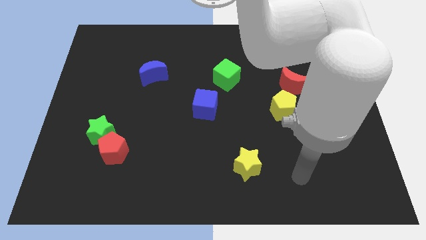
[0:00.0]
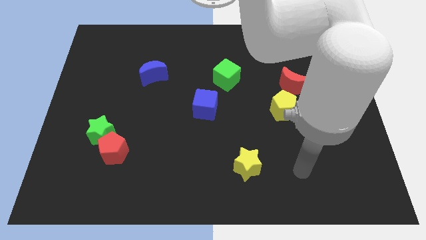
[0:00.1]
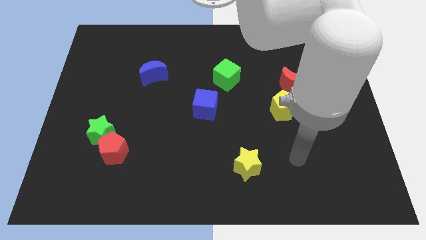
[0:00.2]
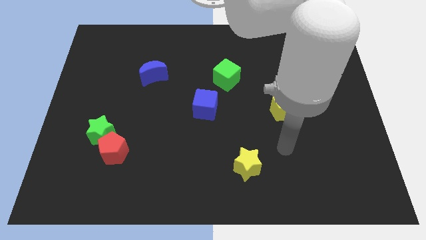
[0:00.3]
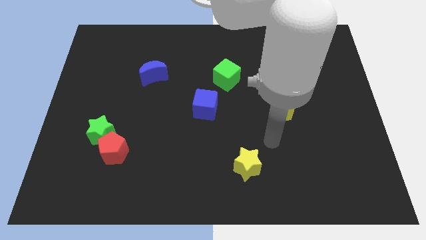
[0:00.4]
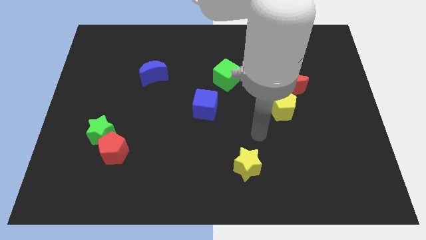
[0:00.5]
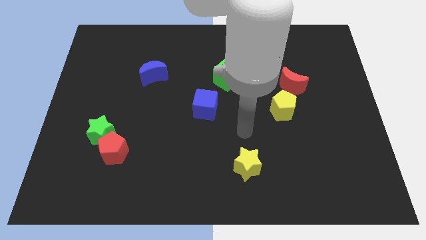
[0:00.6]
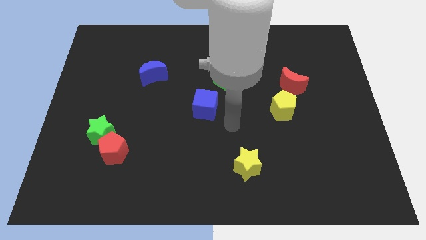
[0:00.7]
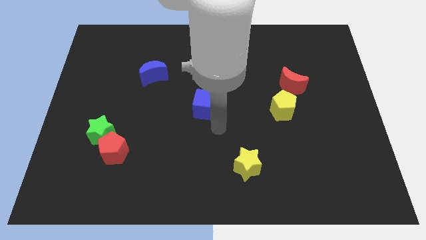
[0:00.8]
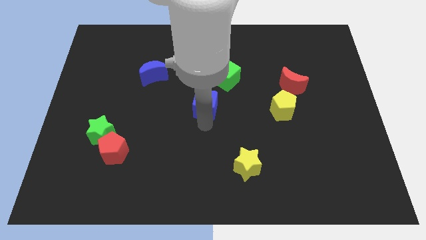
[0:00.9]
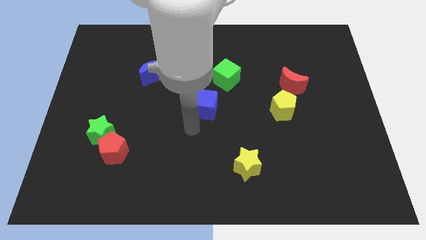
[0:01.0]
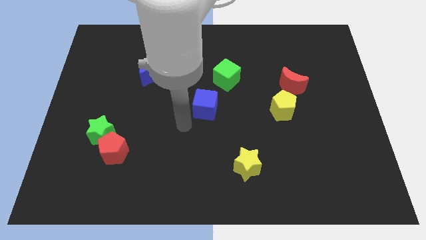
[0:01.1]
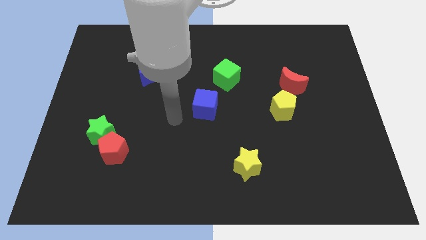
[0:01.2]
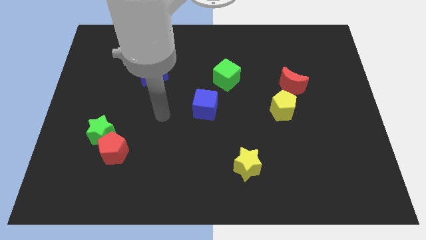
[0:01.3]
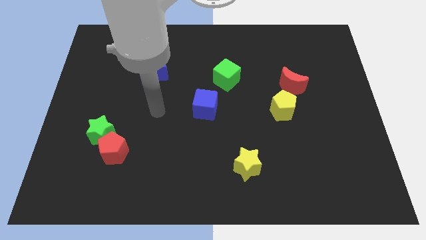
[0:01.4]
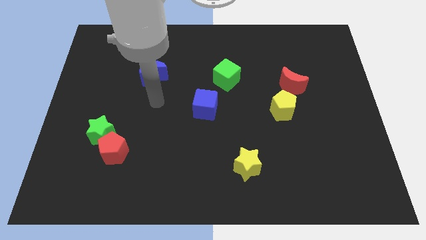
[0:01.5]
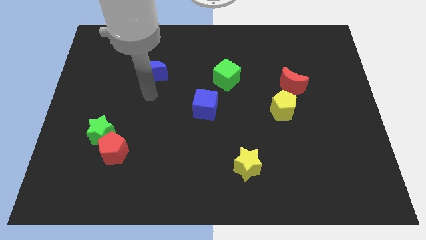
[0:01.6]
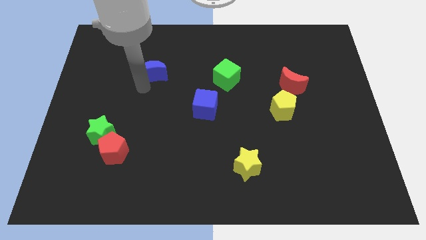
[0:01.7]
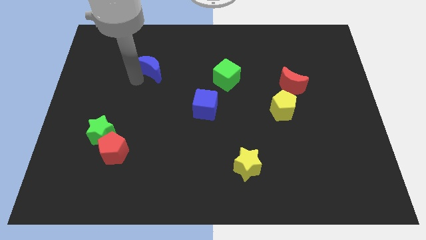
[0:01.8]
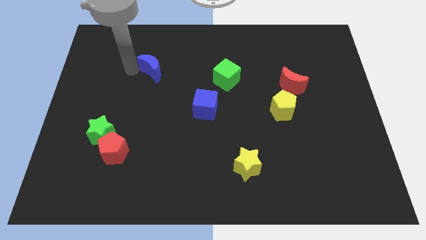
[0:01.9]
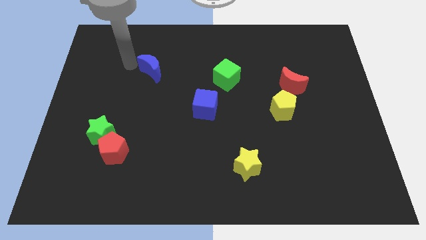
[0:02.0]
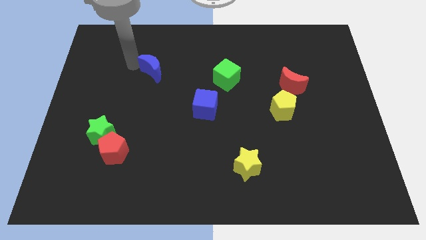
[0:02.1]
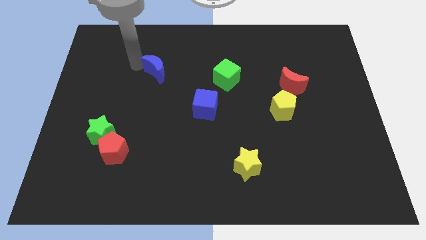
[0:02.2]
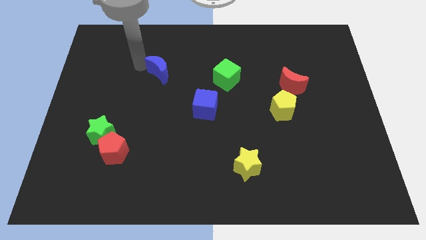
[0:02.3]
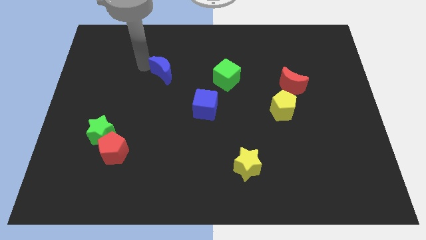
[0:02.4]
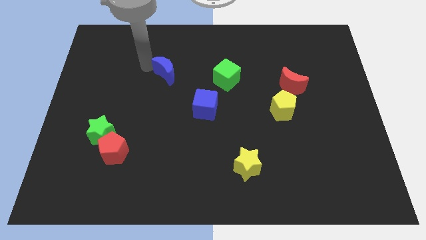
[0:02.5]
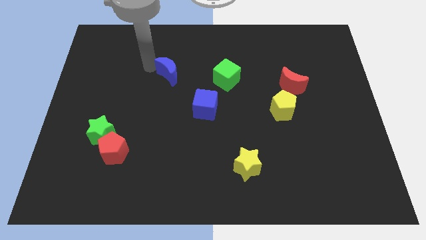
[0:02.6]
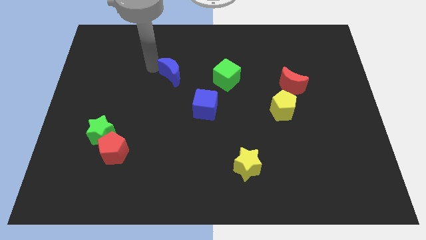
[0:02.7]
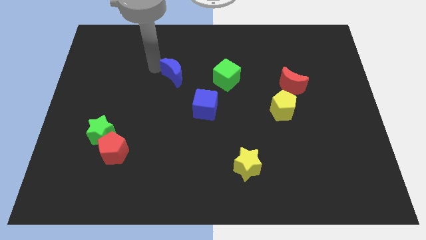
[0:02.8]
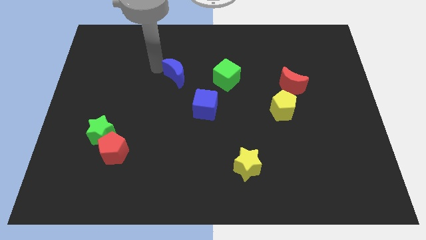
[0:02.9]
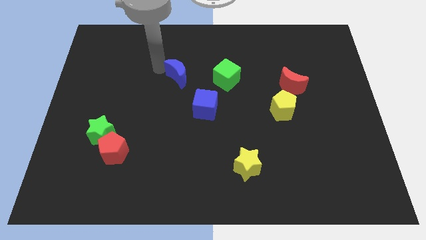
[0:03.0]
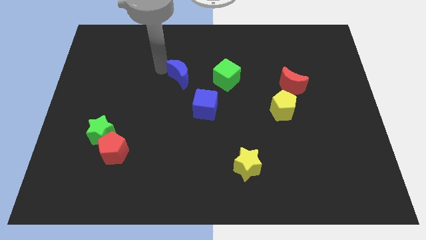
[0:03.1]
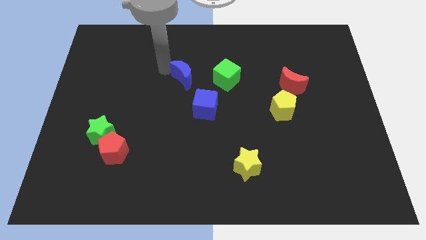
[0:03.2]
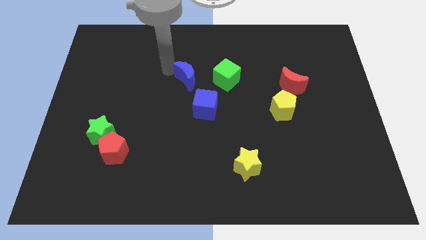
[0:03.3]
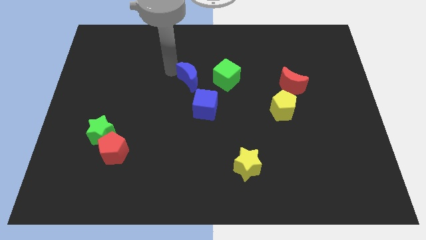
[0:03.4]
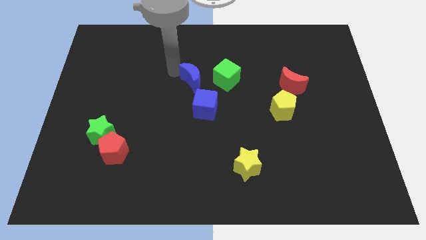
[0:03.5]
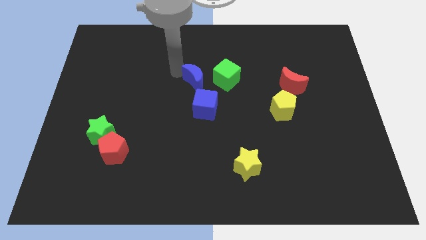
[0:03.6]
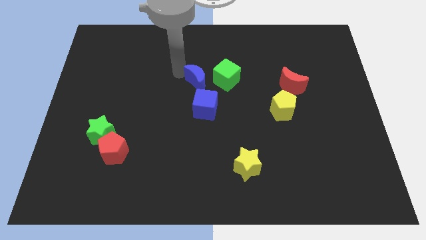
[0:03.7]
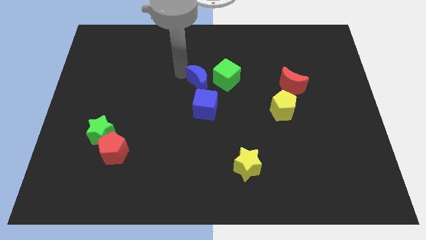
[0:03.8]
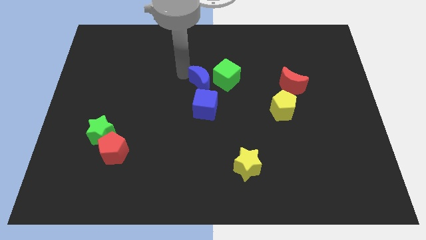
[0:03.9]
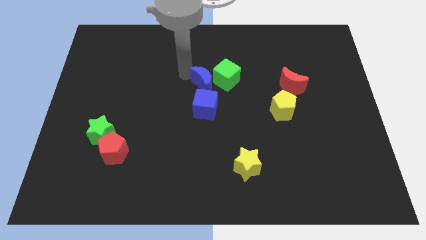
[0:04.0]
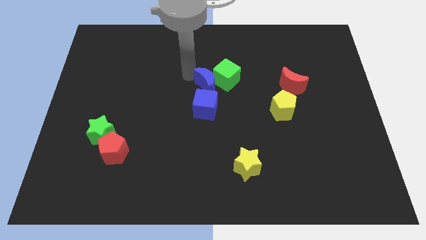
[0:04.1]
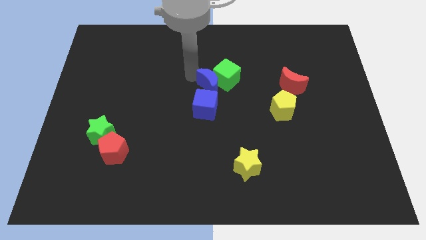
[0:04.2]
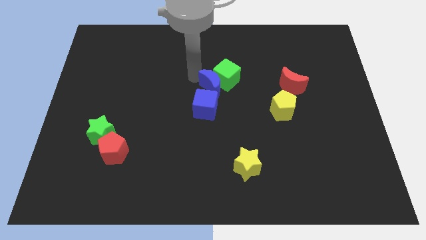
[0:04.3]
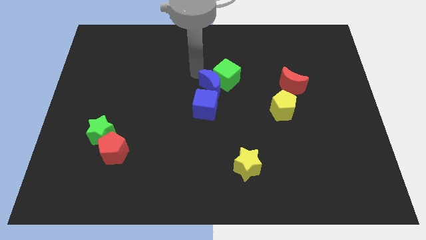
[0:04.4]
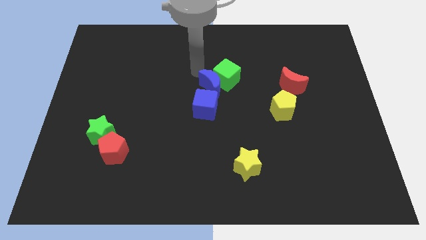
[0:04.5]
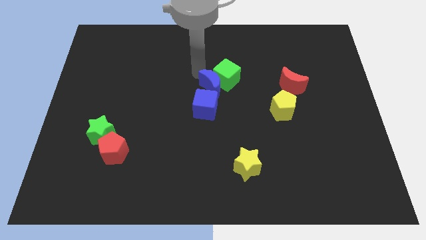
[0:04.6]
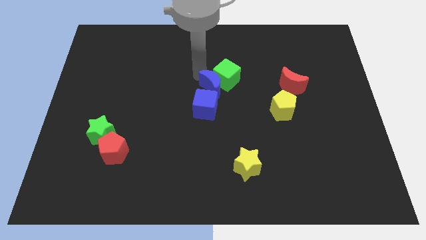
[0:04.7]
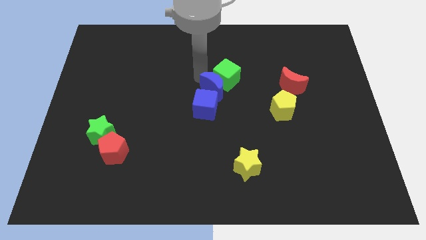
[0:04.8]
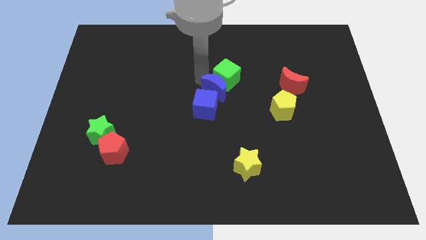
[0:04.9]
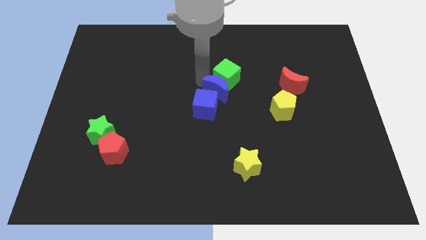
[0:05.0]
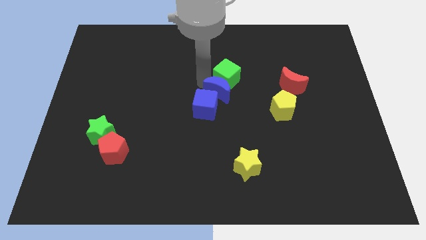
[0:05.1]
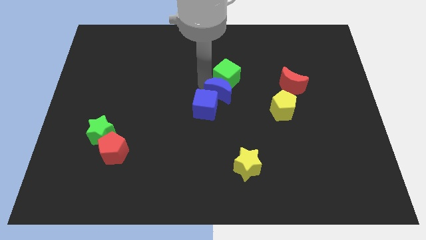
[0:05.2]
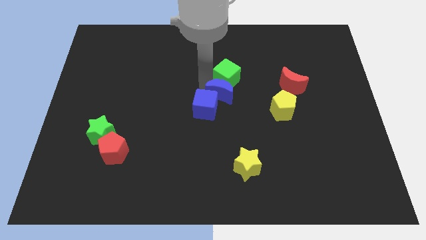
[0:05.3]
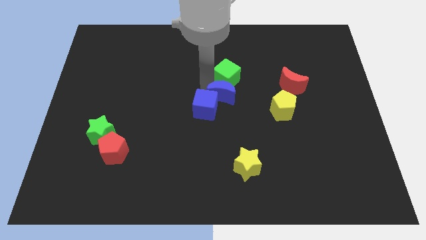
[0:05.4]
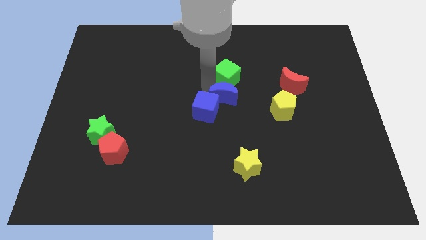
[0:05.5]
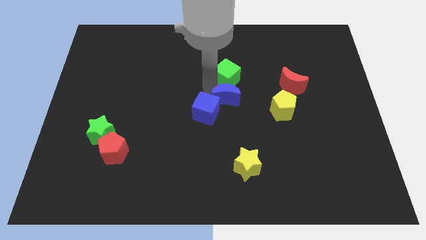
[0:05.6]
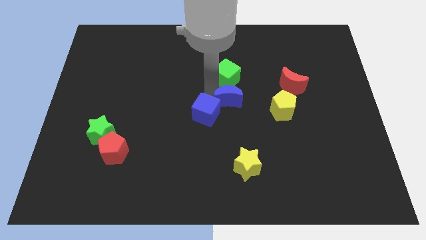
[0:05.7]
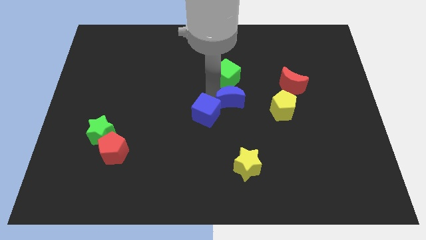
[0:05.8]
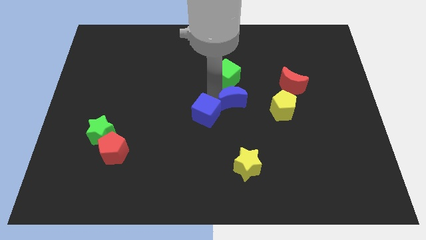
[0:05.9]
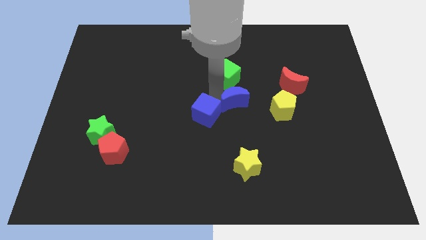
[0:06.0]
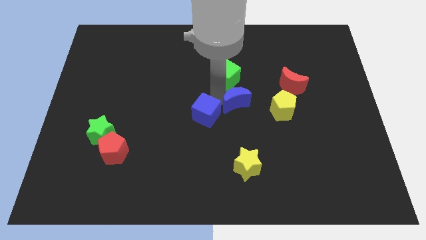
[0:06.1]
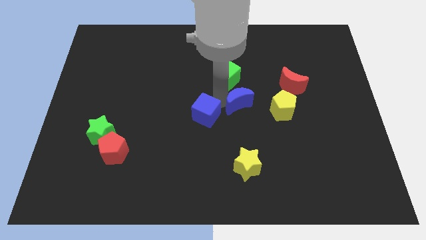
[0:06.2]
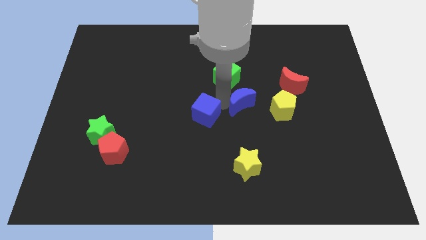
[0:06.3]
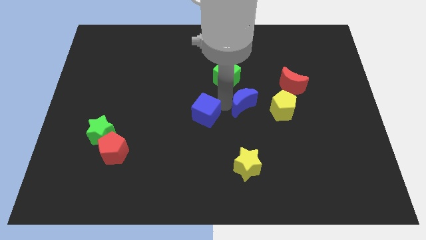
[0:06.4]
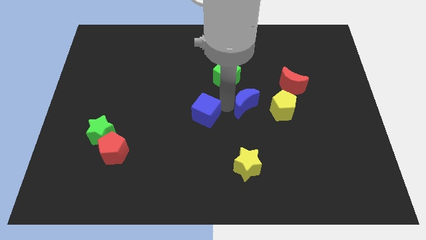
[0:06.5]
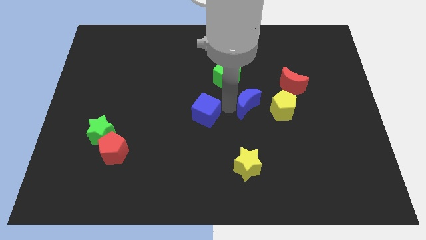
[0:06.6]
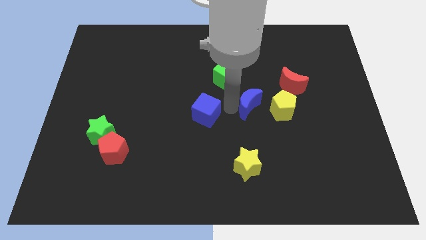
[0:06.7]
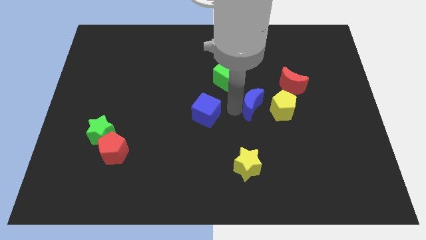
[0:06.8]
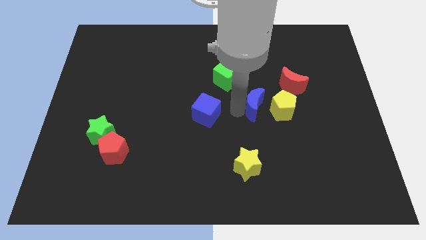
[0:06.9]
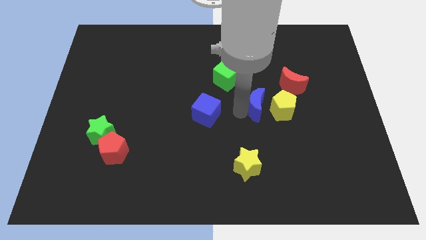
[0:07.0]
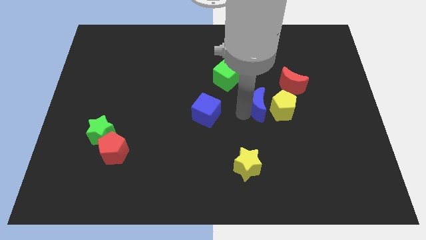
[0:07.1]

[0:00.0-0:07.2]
push the blue moon close to the yellow pentagon
